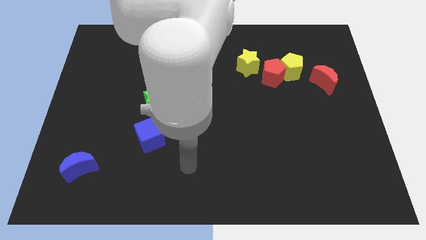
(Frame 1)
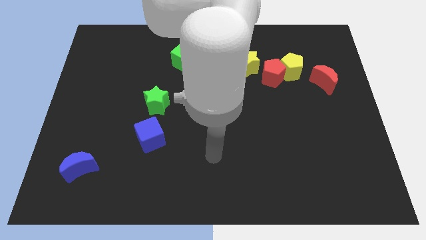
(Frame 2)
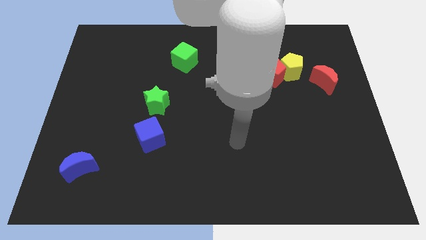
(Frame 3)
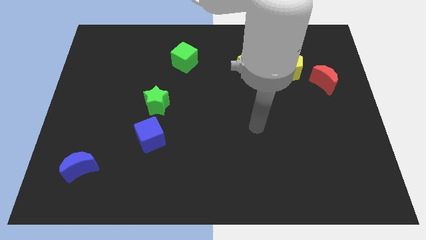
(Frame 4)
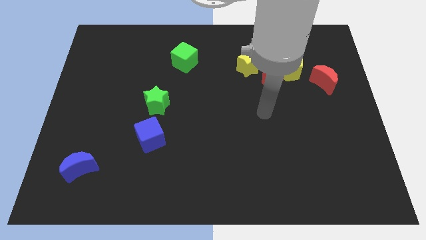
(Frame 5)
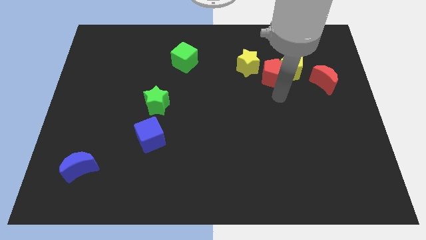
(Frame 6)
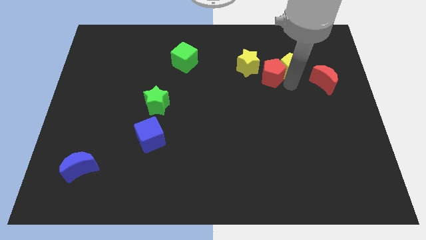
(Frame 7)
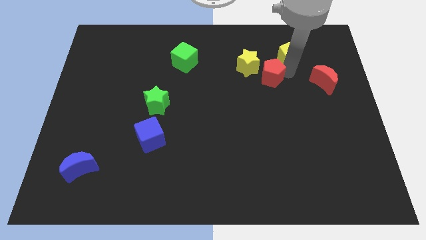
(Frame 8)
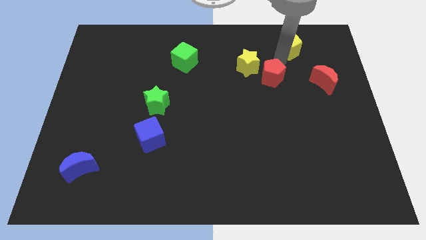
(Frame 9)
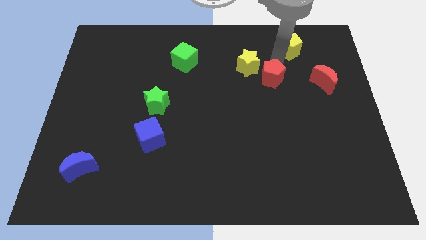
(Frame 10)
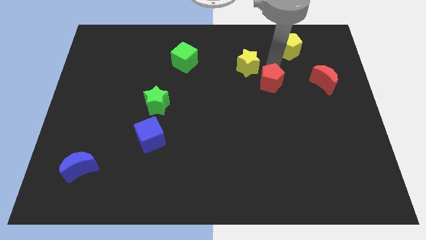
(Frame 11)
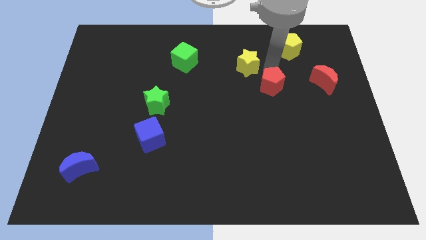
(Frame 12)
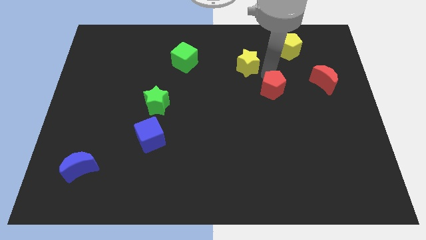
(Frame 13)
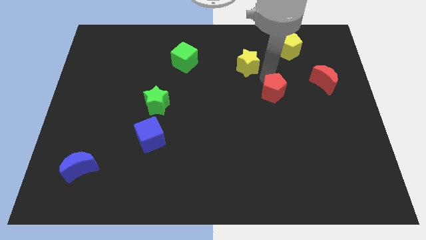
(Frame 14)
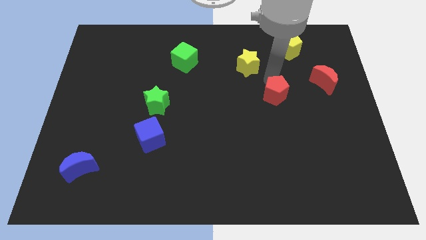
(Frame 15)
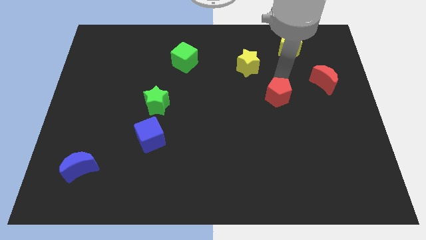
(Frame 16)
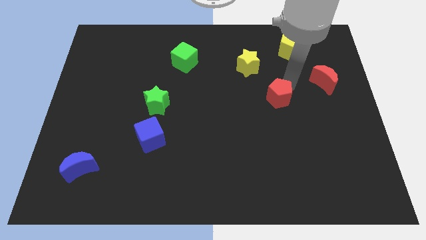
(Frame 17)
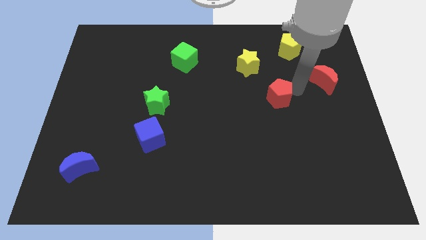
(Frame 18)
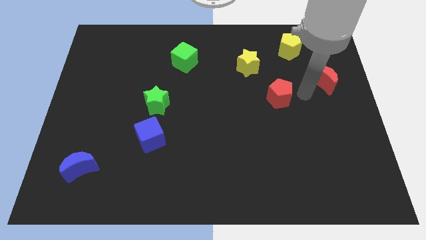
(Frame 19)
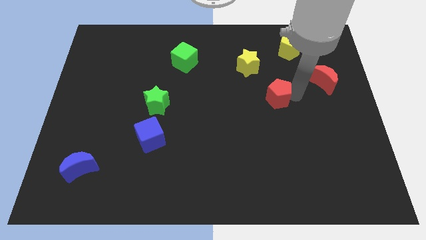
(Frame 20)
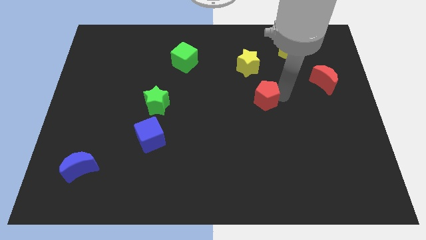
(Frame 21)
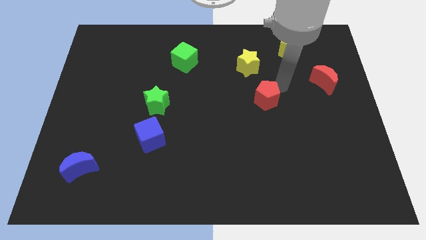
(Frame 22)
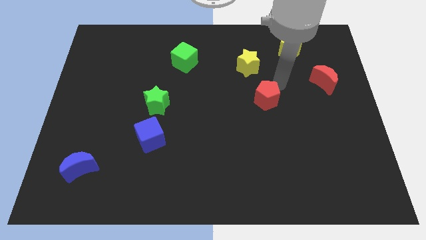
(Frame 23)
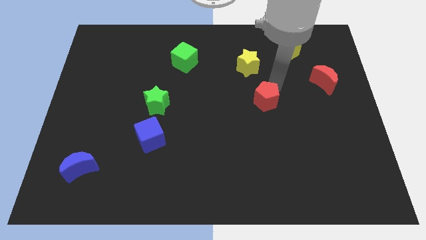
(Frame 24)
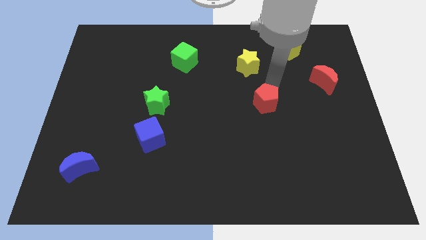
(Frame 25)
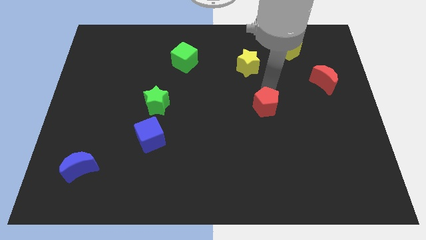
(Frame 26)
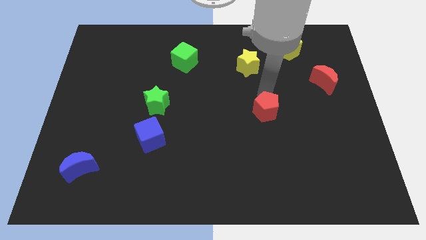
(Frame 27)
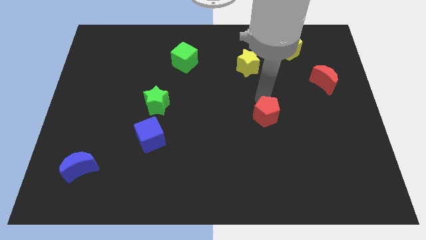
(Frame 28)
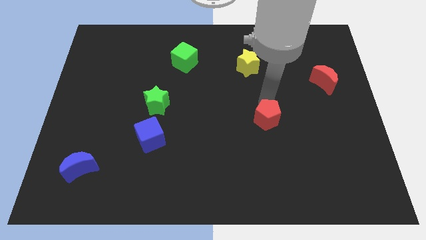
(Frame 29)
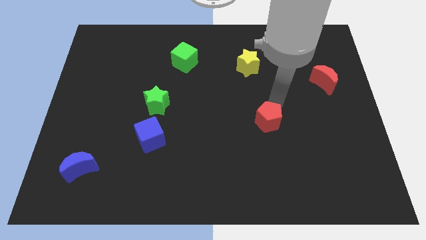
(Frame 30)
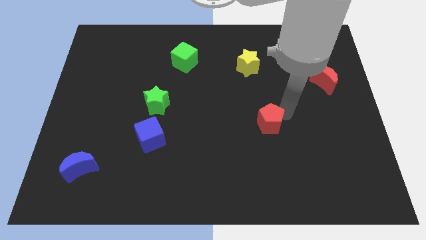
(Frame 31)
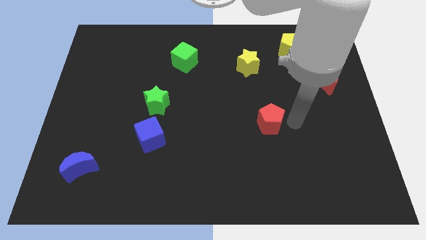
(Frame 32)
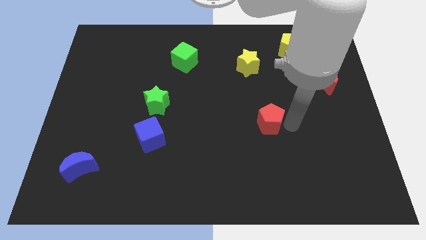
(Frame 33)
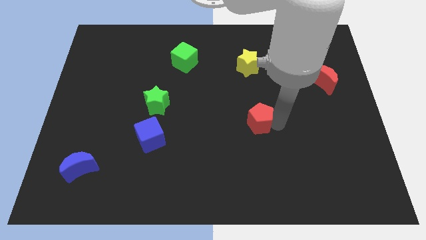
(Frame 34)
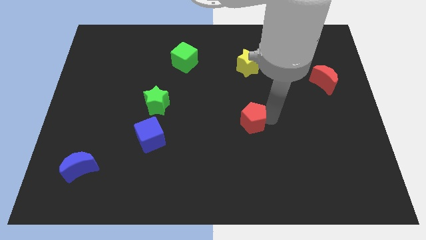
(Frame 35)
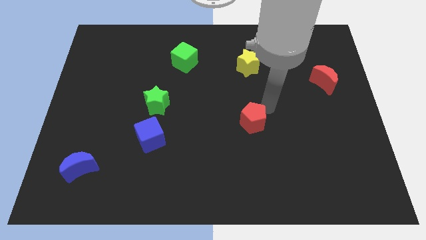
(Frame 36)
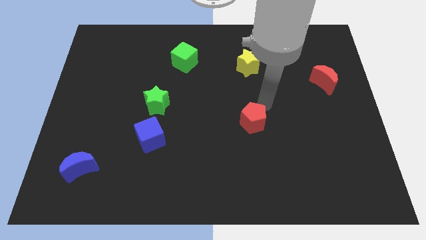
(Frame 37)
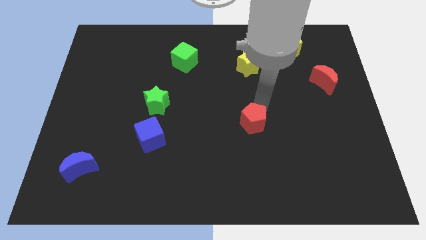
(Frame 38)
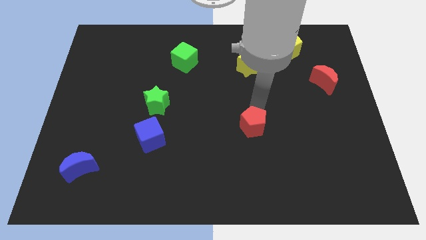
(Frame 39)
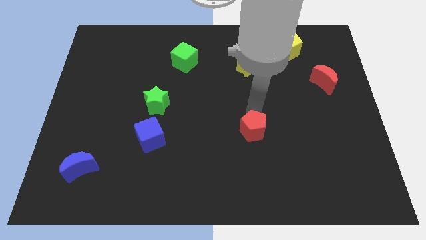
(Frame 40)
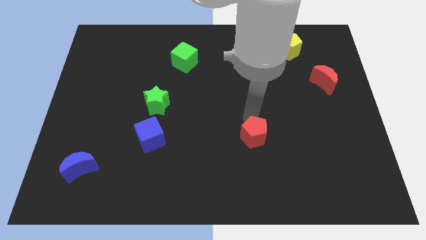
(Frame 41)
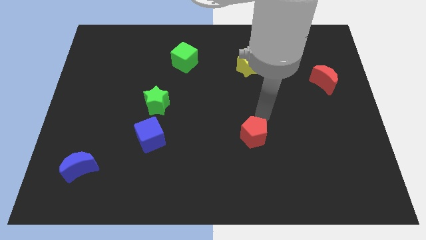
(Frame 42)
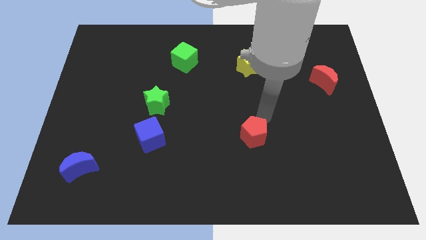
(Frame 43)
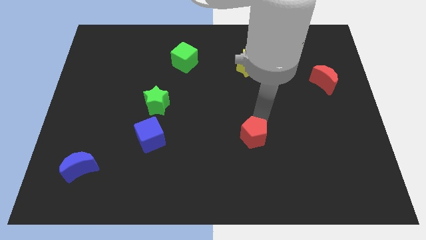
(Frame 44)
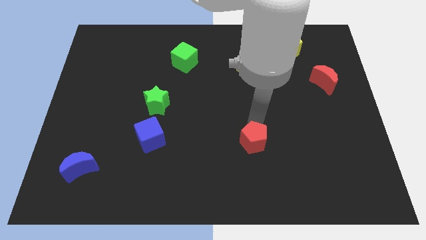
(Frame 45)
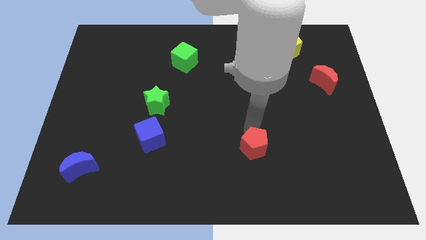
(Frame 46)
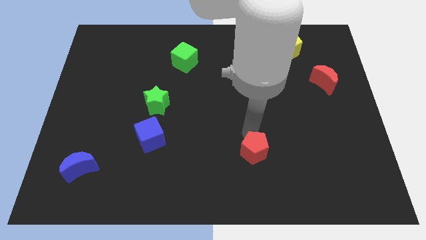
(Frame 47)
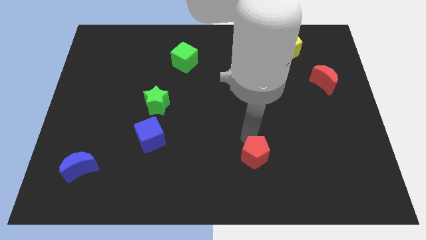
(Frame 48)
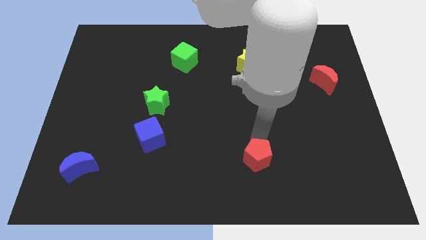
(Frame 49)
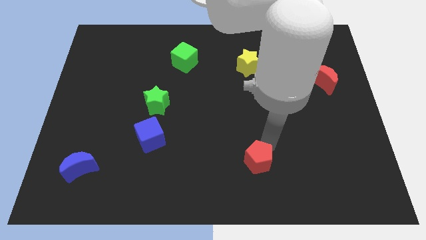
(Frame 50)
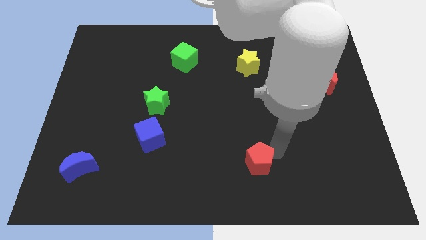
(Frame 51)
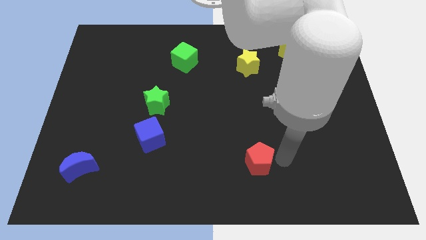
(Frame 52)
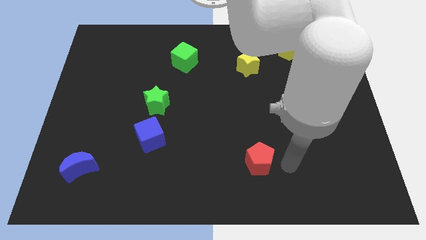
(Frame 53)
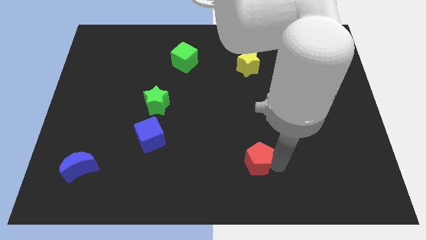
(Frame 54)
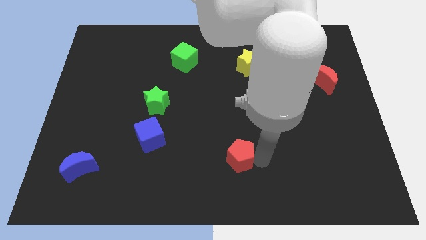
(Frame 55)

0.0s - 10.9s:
push the red pentagon to the bottom side
